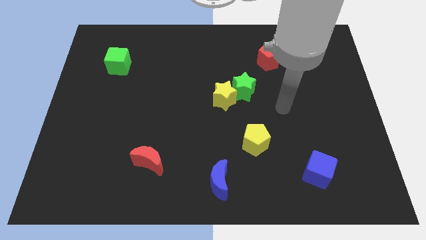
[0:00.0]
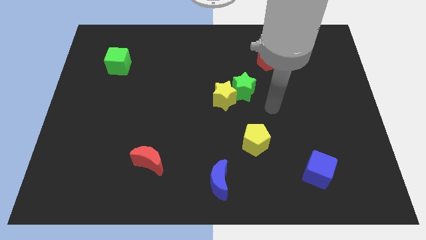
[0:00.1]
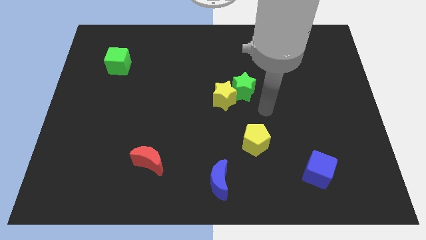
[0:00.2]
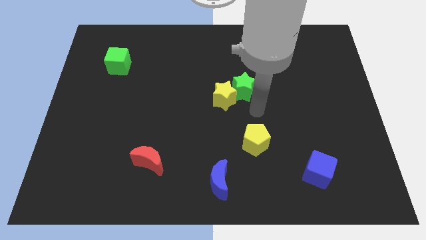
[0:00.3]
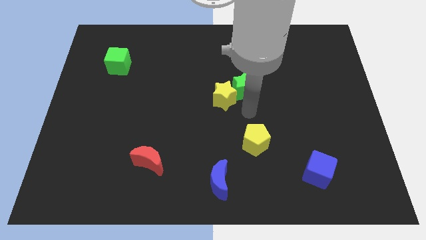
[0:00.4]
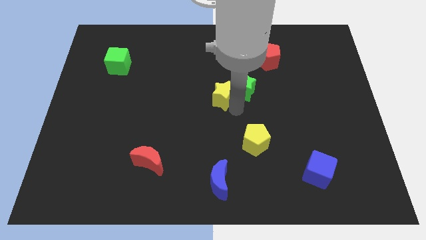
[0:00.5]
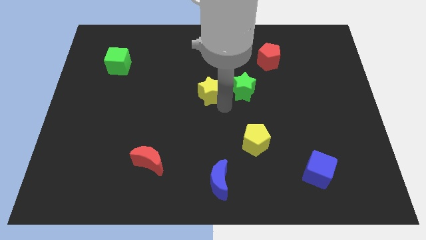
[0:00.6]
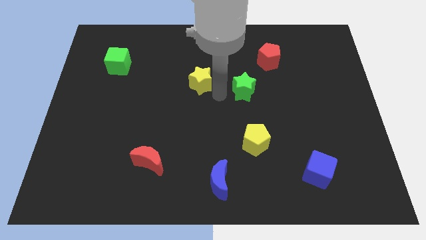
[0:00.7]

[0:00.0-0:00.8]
move the green star away from the yellow star

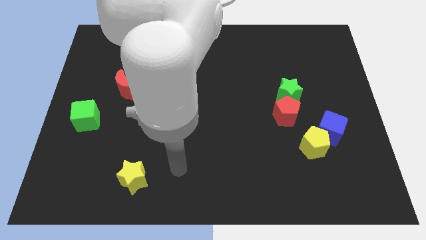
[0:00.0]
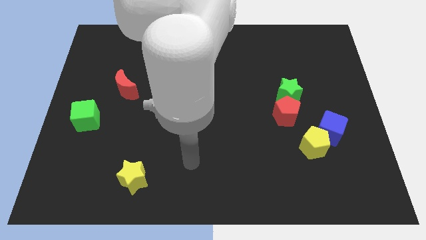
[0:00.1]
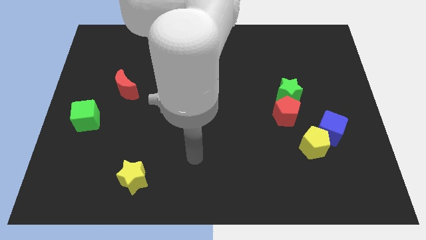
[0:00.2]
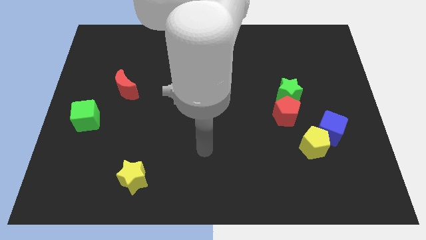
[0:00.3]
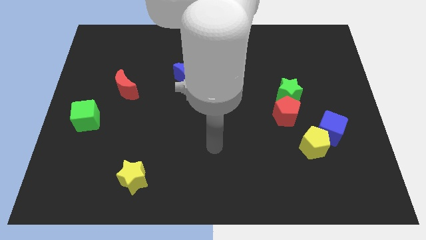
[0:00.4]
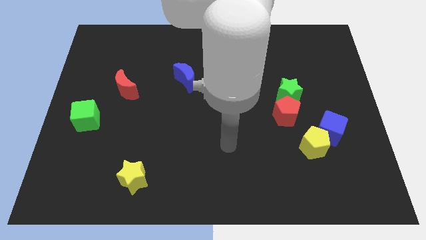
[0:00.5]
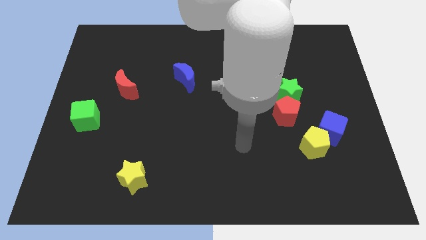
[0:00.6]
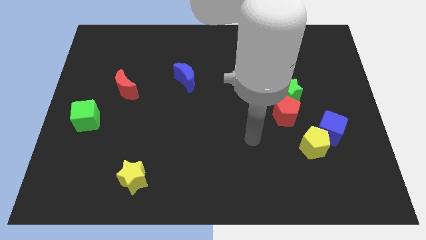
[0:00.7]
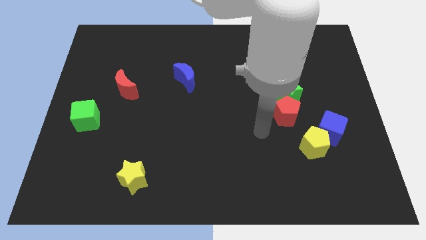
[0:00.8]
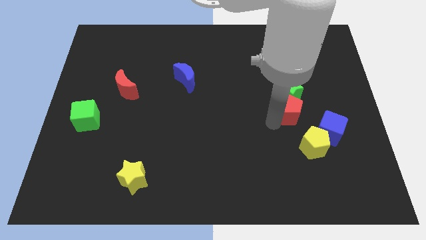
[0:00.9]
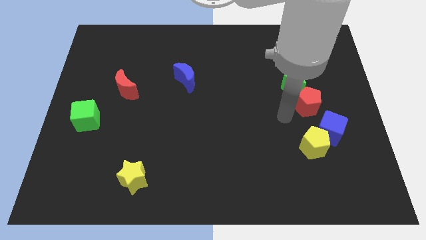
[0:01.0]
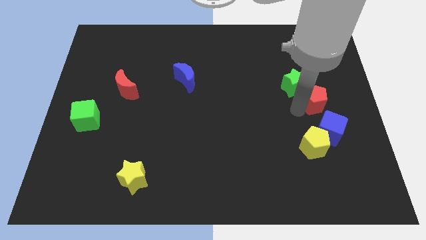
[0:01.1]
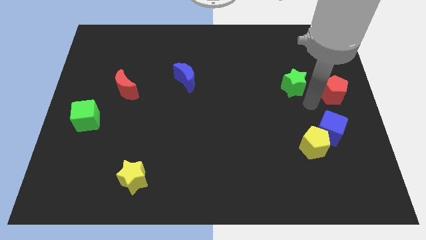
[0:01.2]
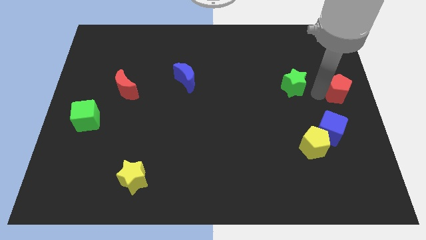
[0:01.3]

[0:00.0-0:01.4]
move the green star away from the red pentagon

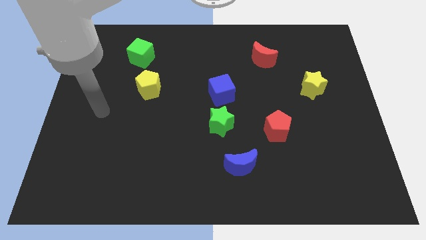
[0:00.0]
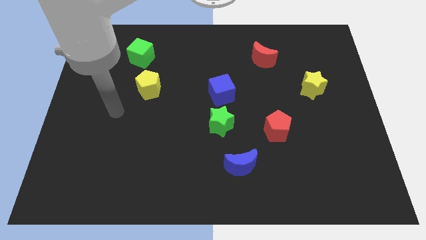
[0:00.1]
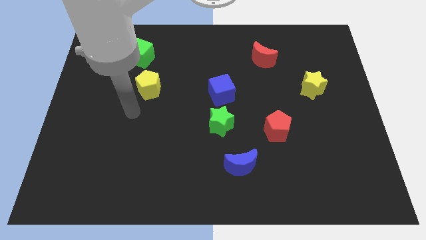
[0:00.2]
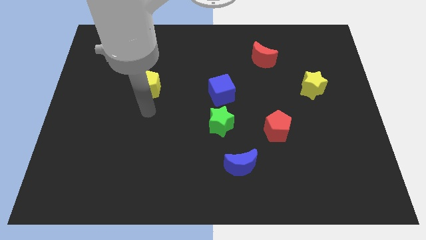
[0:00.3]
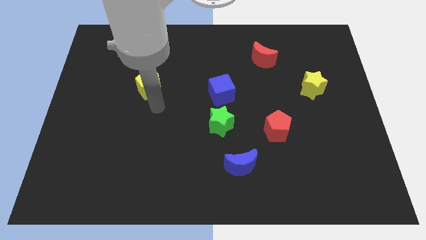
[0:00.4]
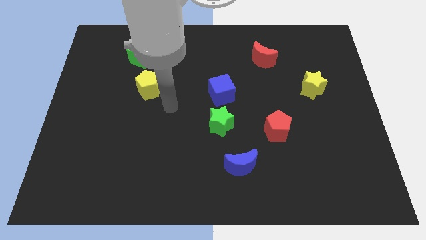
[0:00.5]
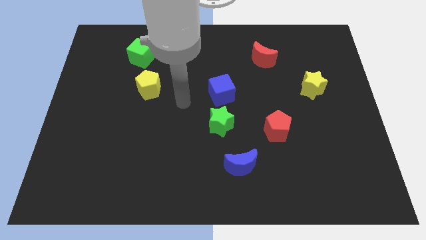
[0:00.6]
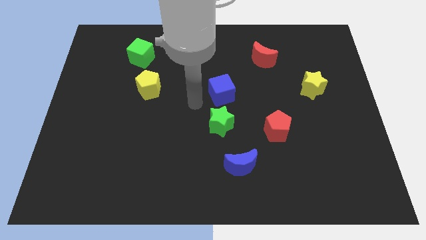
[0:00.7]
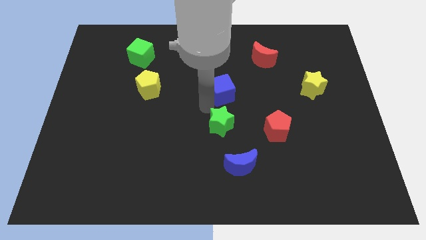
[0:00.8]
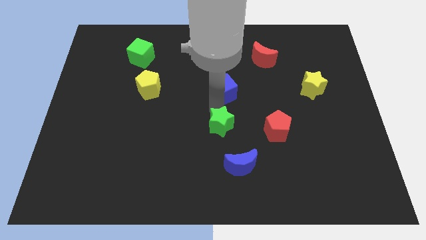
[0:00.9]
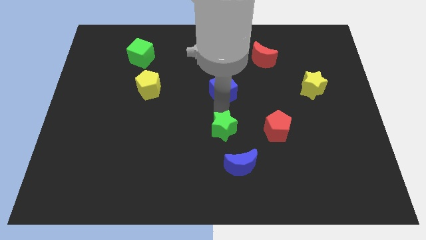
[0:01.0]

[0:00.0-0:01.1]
pull the blue cube apart from the green star

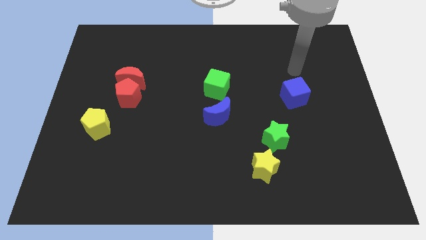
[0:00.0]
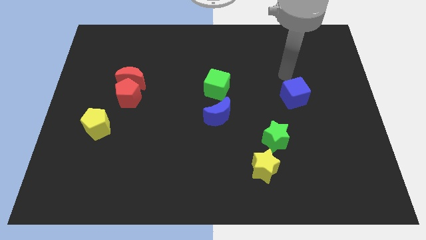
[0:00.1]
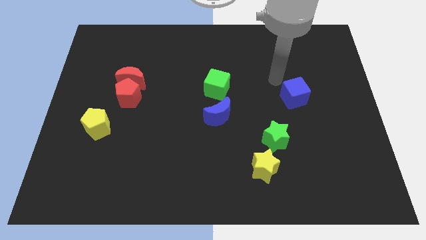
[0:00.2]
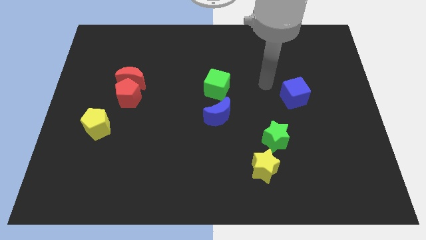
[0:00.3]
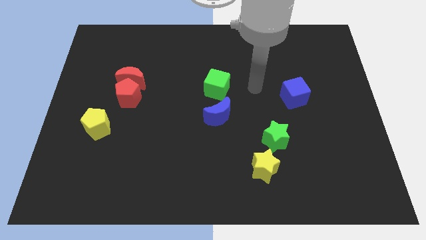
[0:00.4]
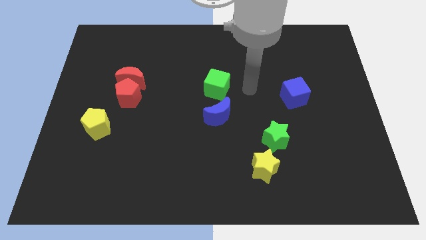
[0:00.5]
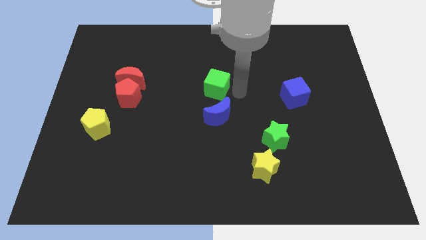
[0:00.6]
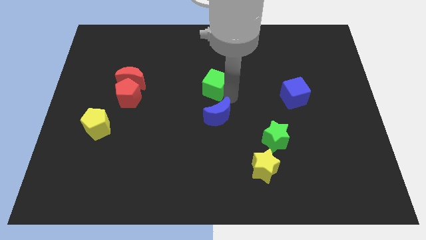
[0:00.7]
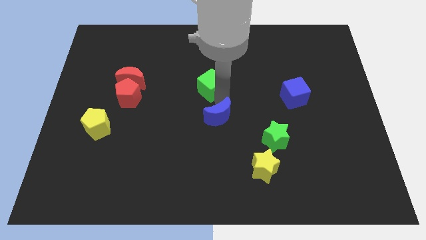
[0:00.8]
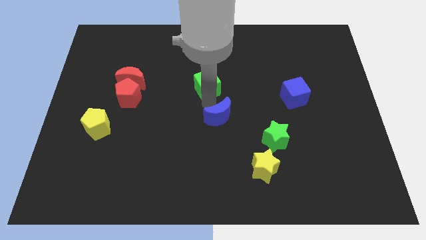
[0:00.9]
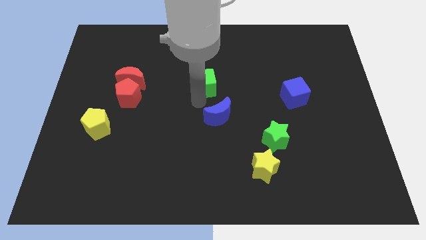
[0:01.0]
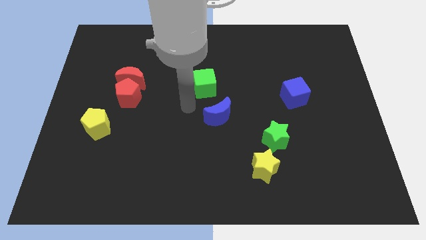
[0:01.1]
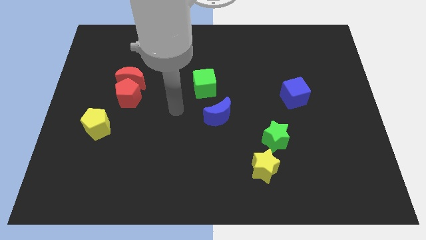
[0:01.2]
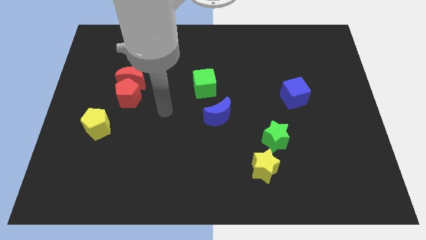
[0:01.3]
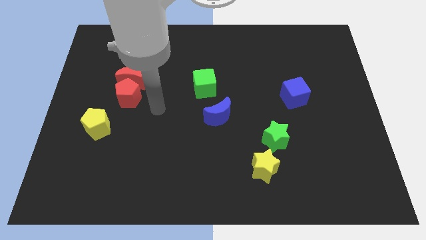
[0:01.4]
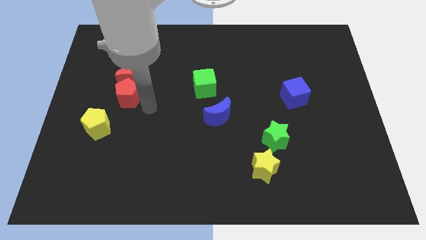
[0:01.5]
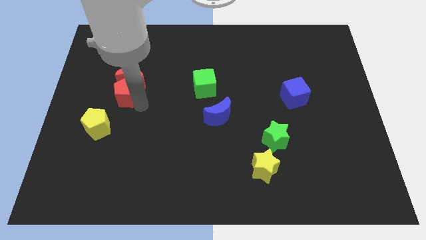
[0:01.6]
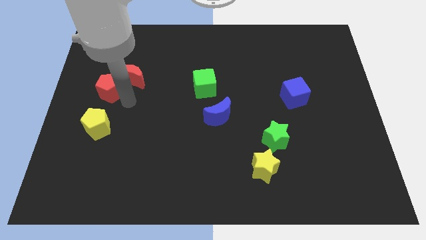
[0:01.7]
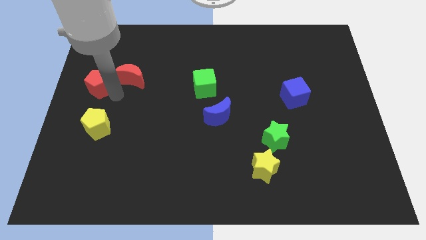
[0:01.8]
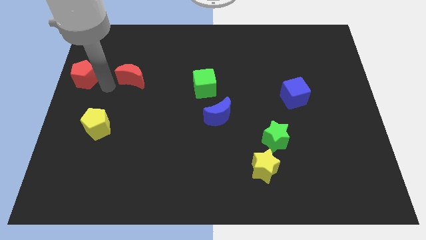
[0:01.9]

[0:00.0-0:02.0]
pull the red moon apart from the red pentagon

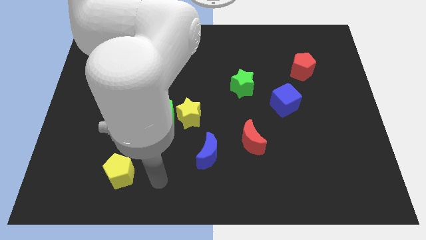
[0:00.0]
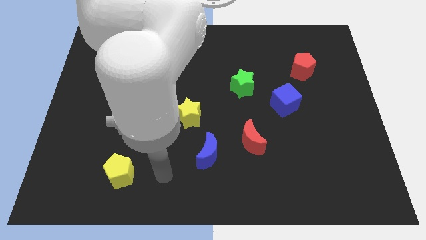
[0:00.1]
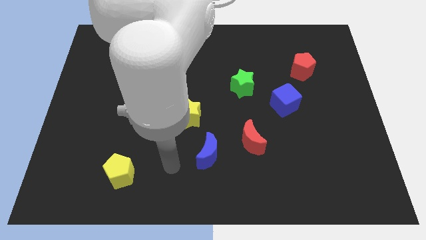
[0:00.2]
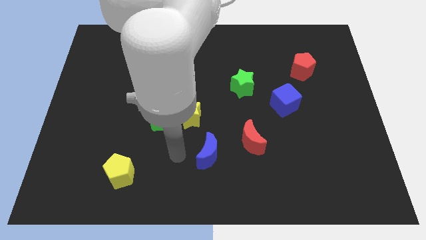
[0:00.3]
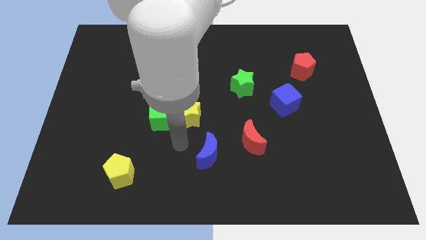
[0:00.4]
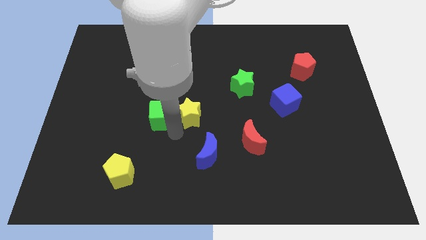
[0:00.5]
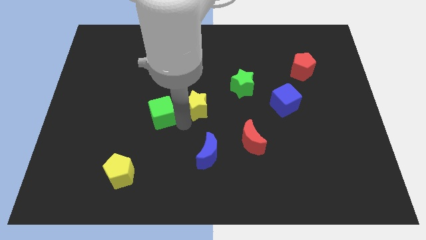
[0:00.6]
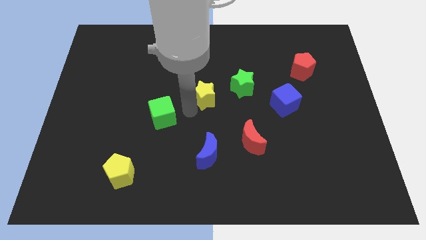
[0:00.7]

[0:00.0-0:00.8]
move the green cube away from the yellow star

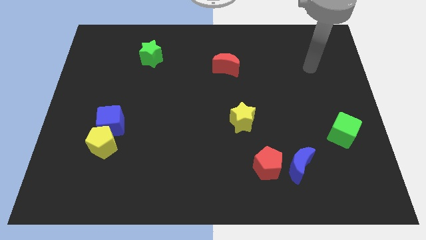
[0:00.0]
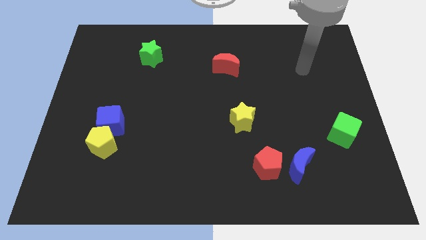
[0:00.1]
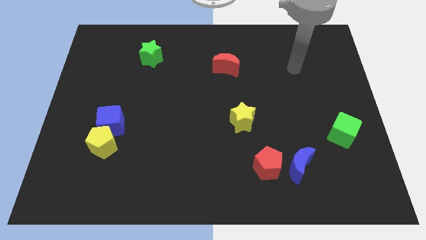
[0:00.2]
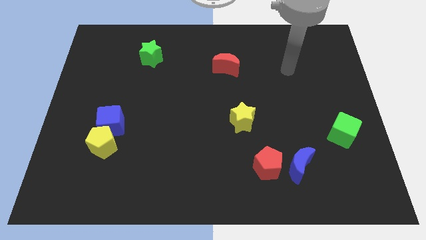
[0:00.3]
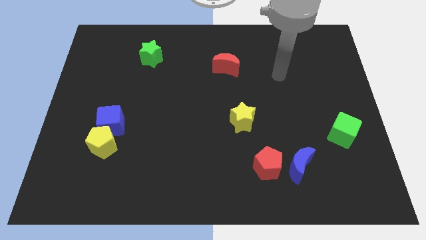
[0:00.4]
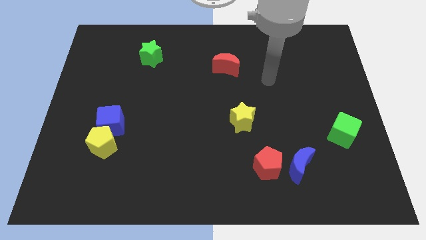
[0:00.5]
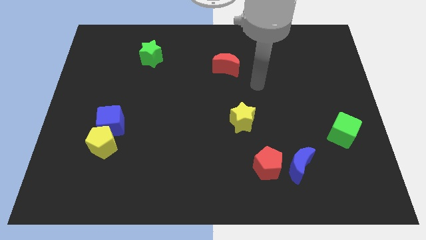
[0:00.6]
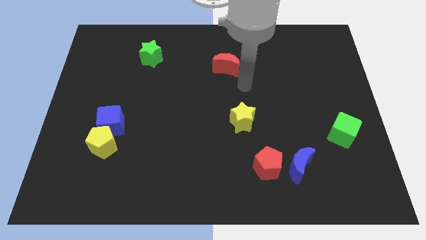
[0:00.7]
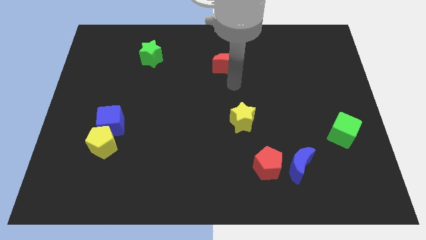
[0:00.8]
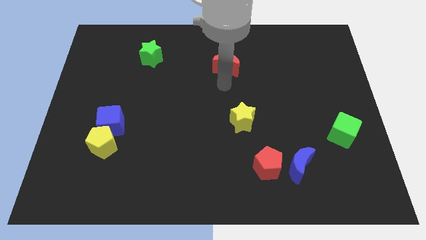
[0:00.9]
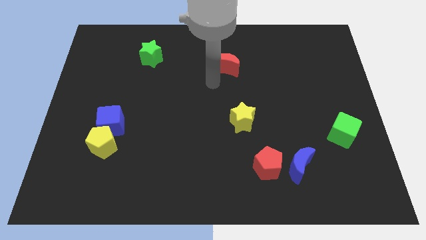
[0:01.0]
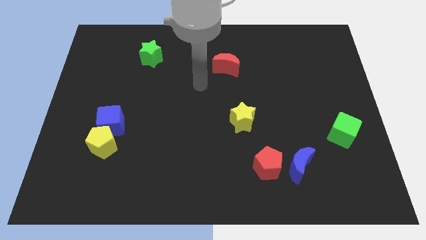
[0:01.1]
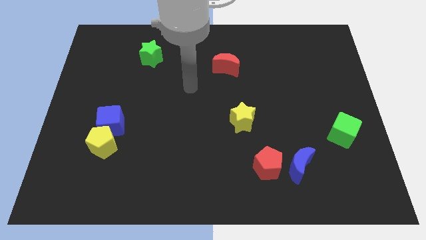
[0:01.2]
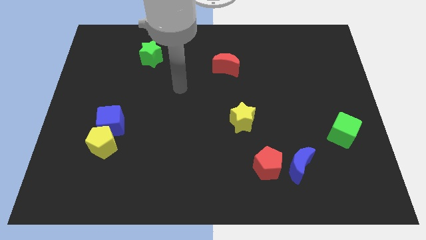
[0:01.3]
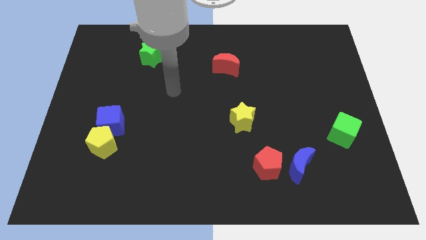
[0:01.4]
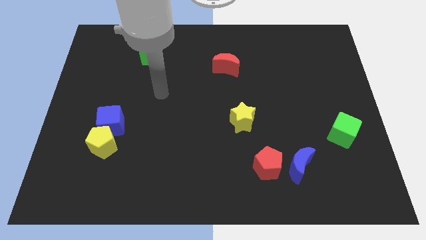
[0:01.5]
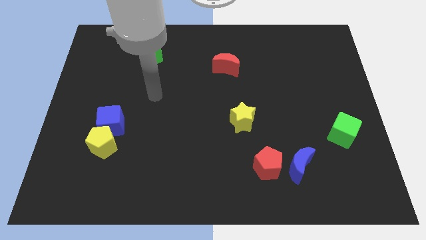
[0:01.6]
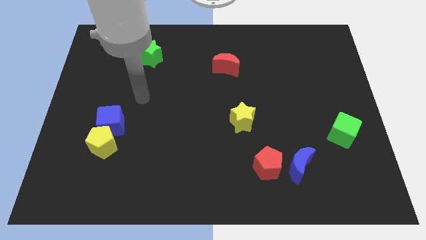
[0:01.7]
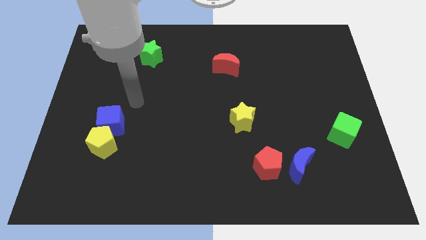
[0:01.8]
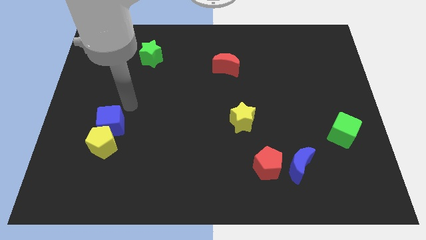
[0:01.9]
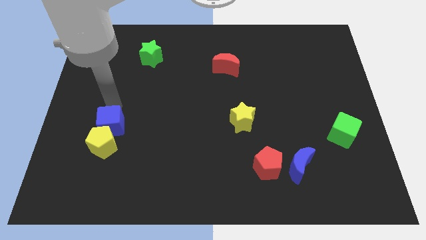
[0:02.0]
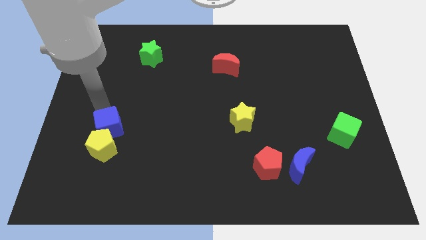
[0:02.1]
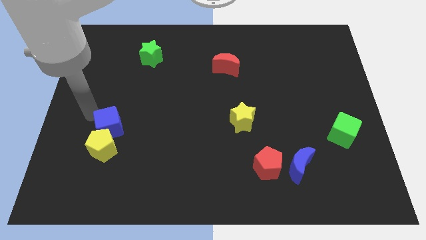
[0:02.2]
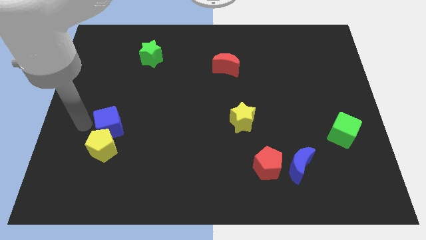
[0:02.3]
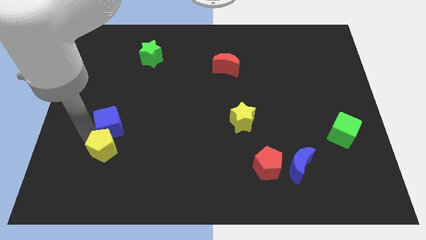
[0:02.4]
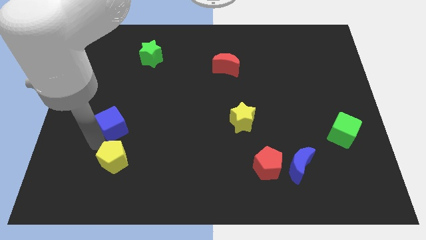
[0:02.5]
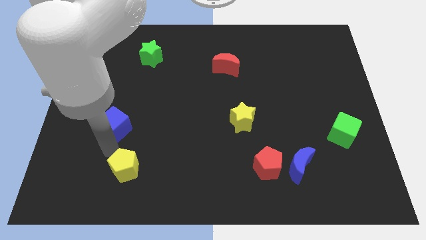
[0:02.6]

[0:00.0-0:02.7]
pull the blue cube apart from the yellow pentagon

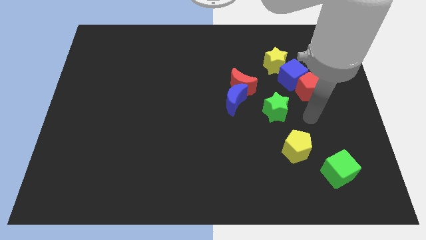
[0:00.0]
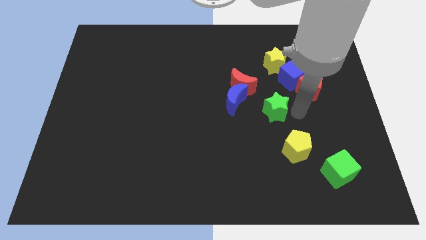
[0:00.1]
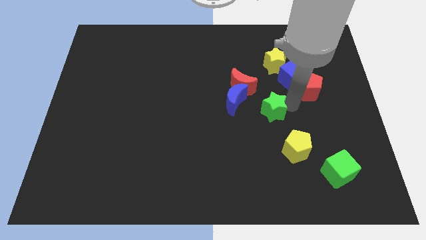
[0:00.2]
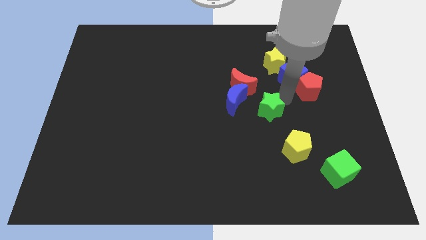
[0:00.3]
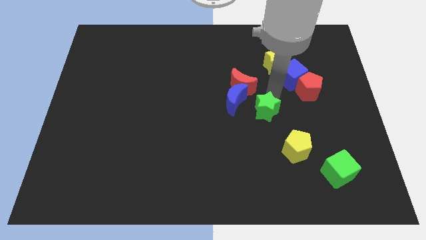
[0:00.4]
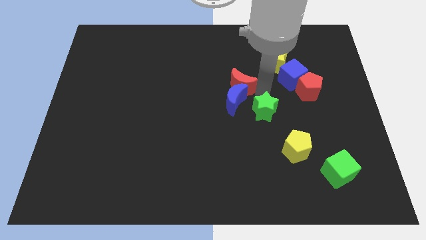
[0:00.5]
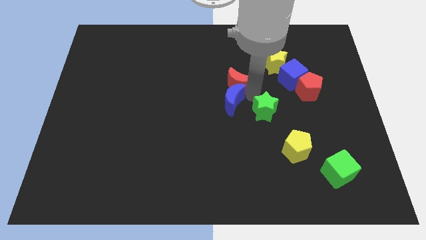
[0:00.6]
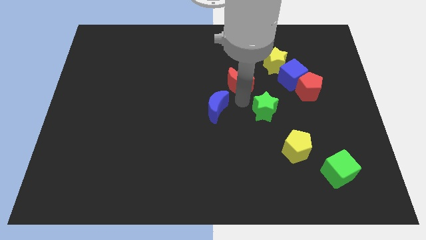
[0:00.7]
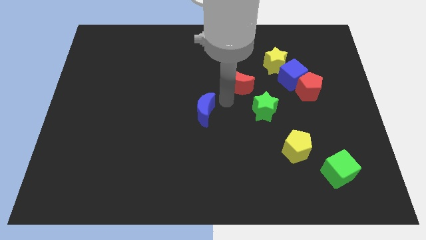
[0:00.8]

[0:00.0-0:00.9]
pull the red moon apart from the blue moon
